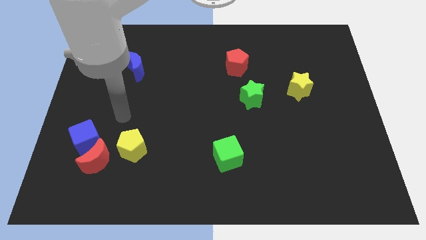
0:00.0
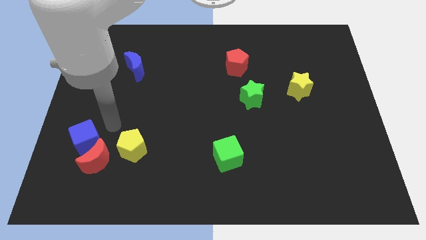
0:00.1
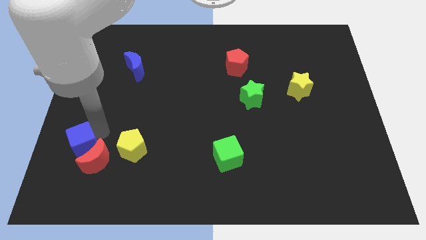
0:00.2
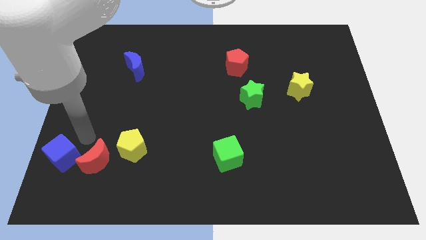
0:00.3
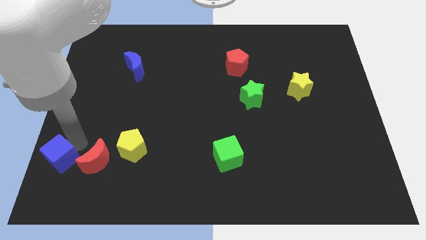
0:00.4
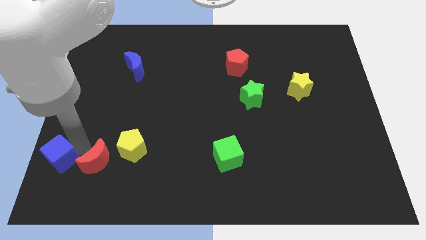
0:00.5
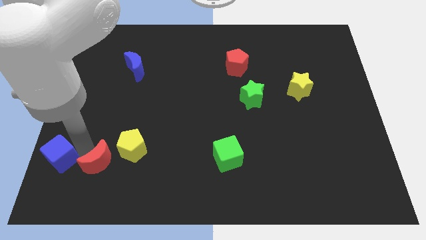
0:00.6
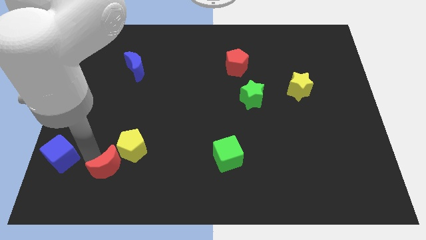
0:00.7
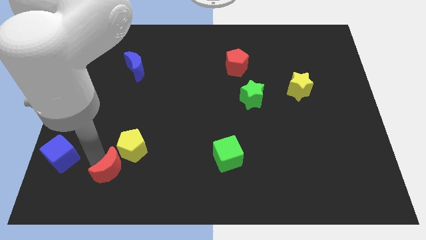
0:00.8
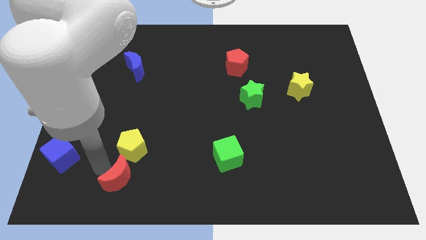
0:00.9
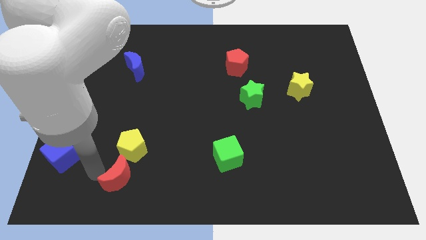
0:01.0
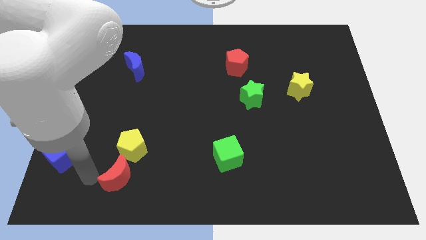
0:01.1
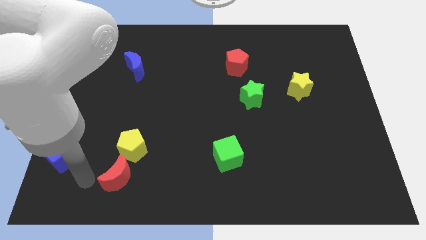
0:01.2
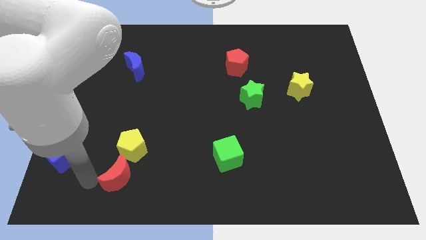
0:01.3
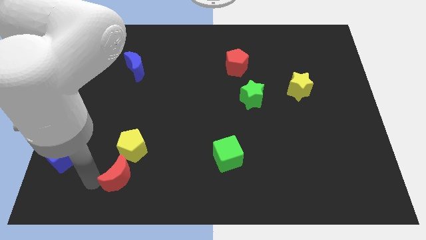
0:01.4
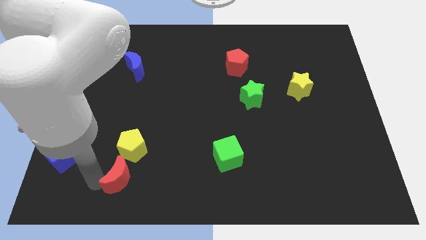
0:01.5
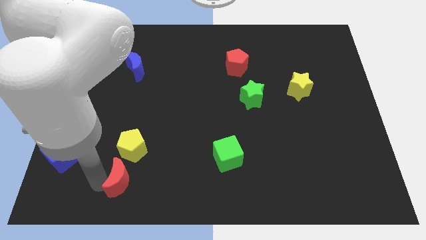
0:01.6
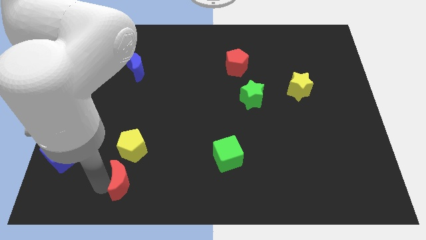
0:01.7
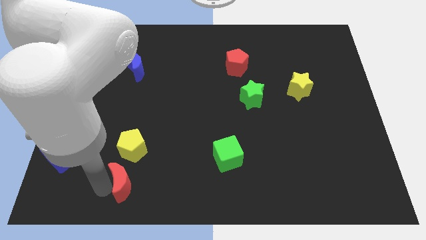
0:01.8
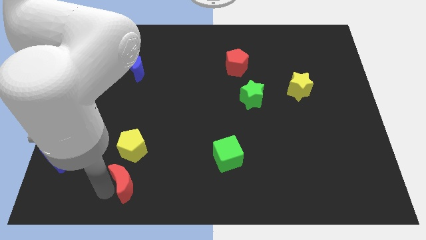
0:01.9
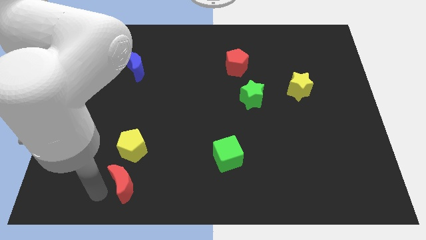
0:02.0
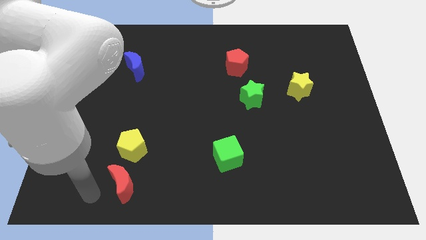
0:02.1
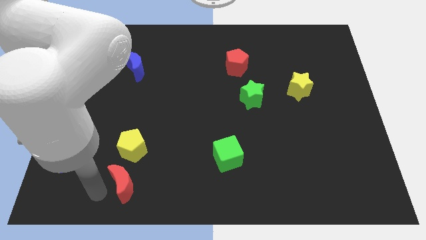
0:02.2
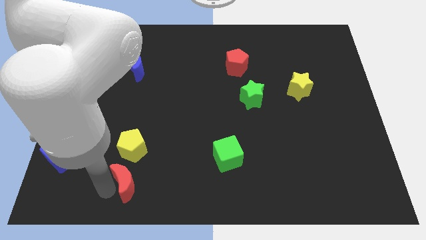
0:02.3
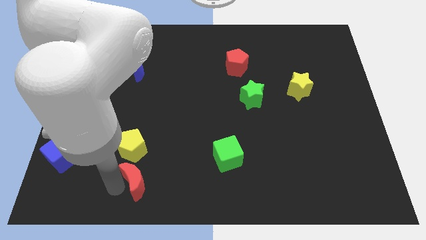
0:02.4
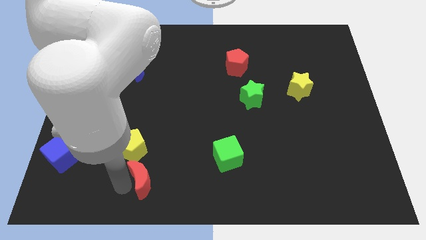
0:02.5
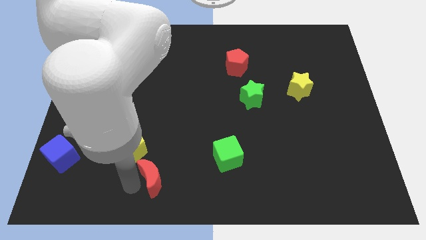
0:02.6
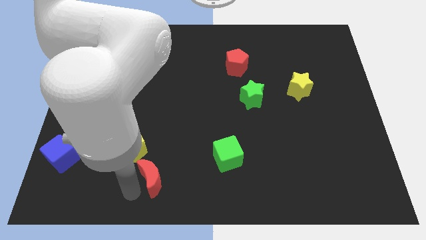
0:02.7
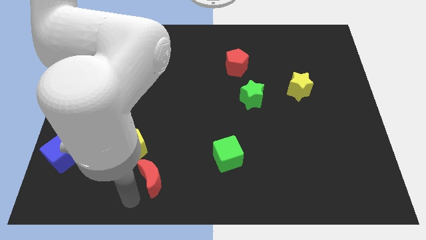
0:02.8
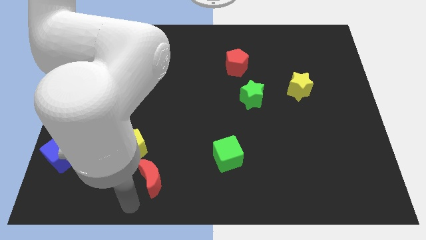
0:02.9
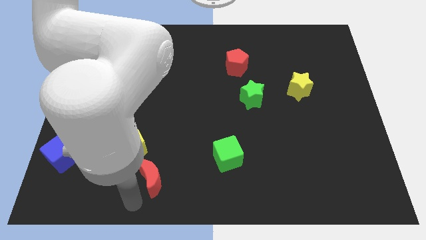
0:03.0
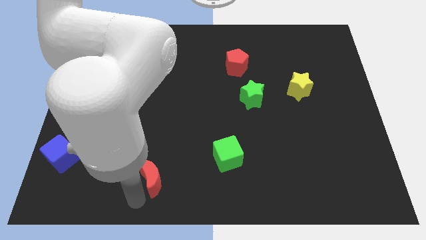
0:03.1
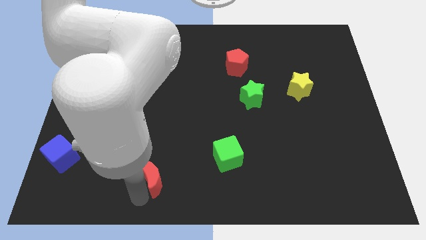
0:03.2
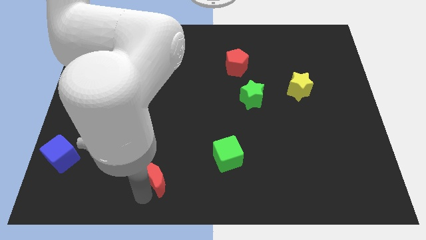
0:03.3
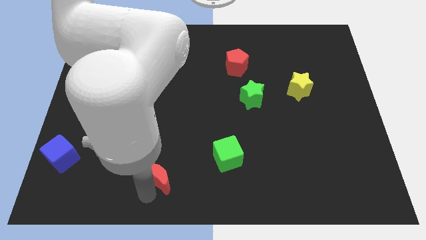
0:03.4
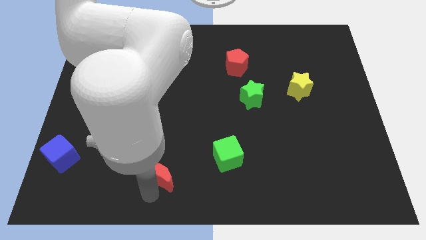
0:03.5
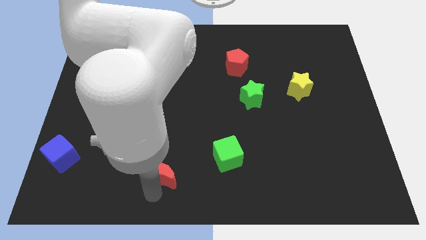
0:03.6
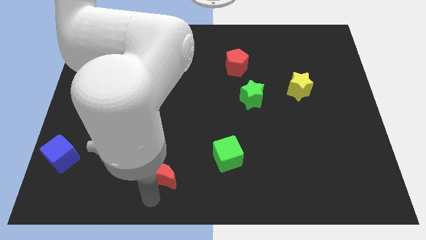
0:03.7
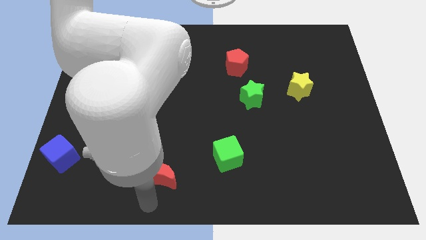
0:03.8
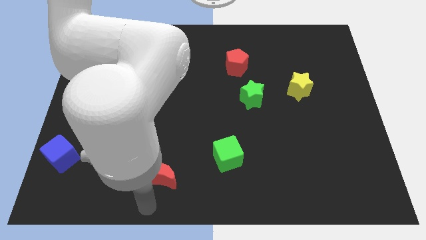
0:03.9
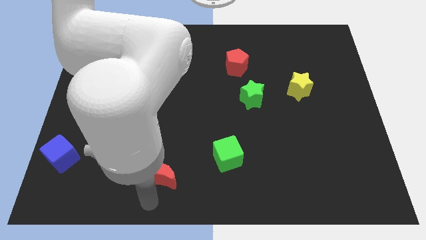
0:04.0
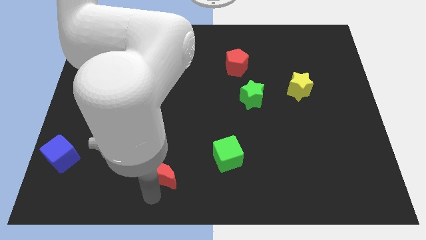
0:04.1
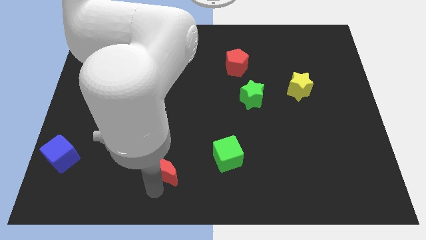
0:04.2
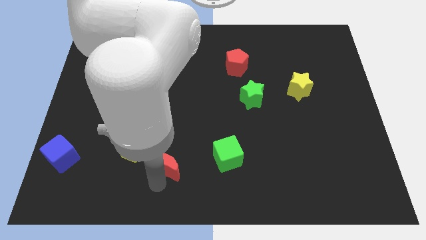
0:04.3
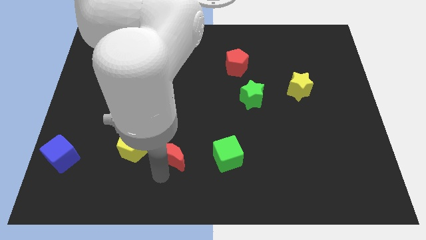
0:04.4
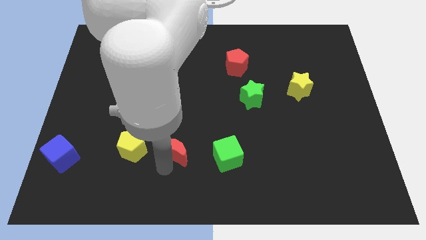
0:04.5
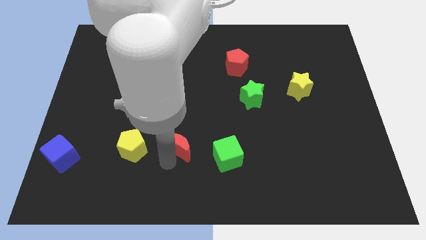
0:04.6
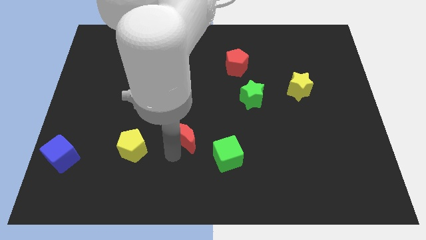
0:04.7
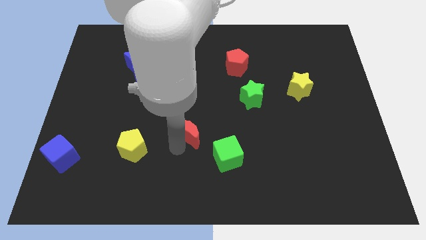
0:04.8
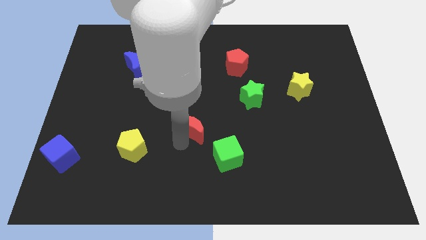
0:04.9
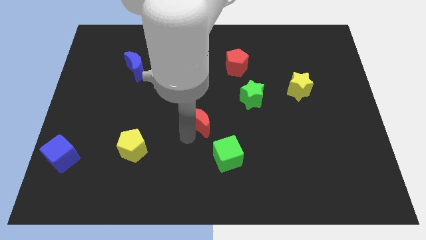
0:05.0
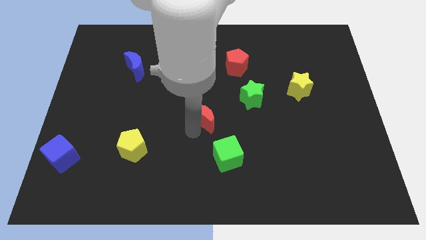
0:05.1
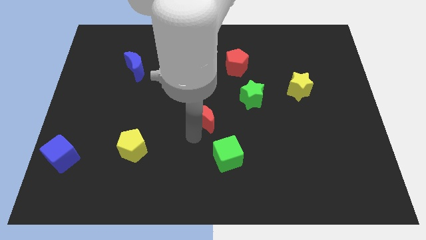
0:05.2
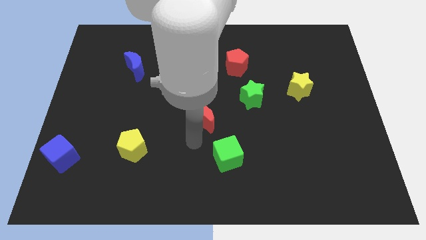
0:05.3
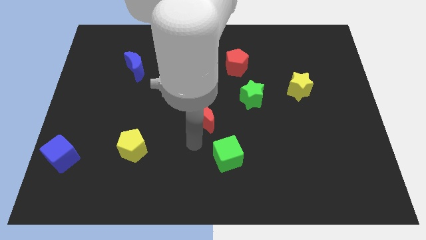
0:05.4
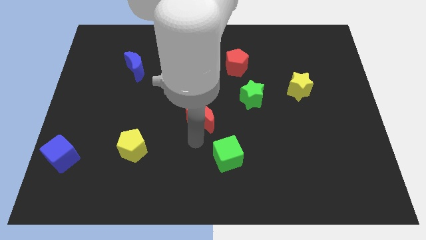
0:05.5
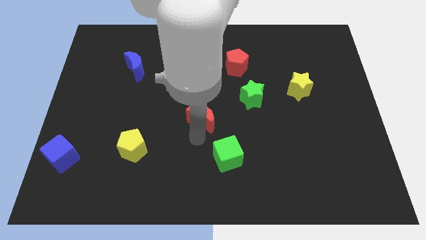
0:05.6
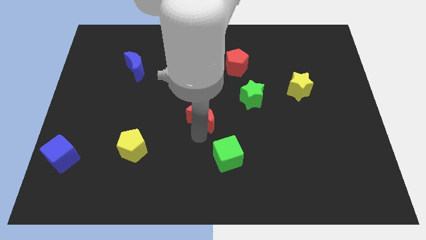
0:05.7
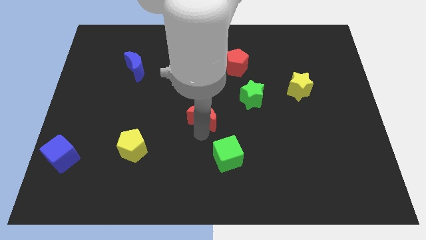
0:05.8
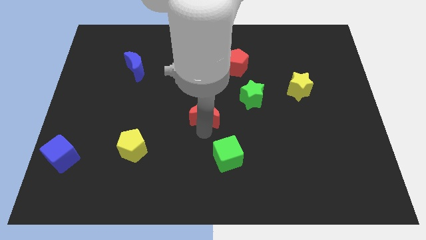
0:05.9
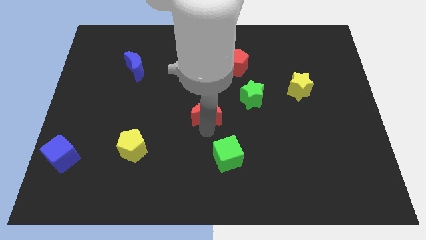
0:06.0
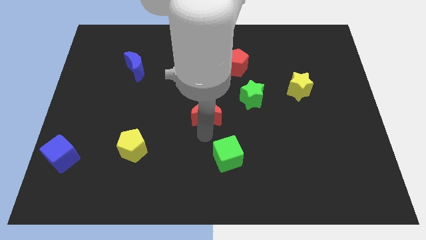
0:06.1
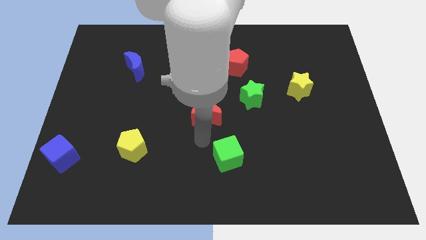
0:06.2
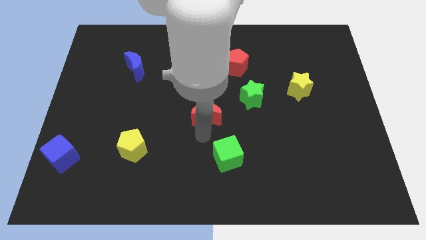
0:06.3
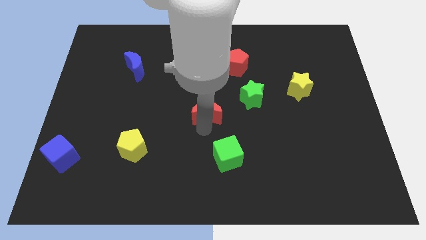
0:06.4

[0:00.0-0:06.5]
move the red moon just left of the green star
